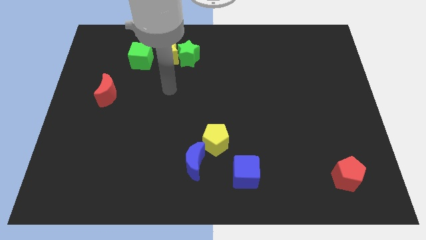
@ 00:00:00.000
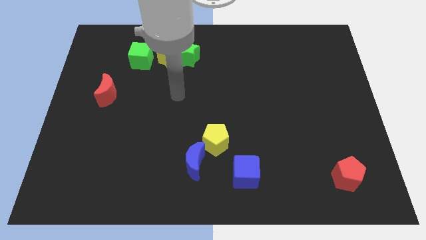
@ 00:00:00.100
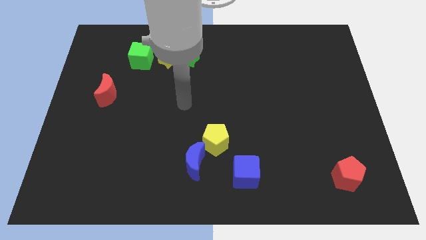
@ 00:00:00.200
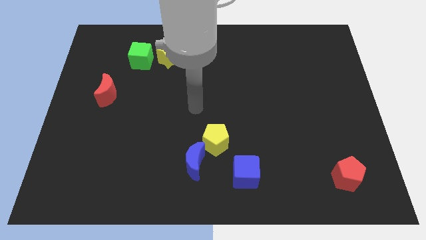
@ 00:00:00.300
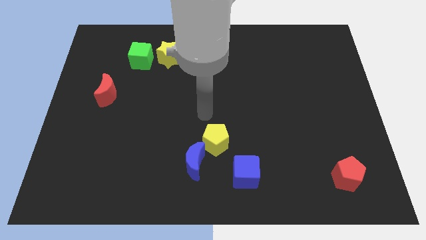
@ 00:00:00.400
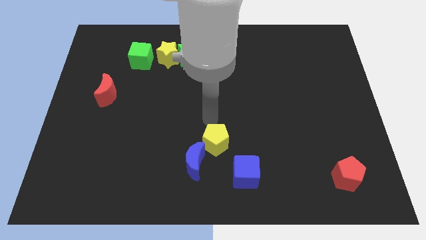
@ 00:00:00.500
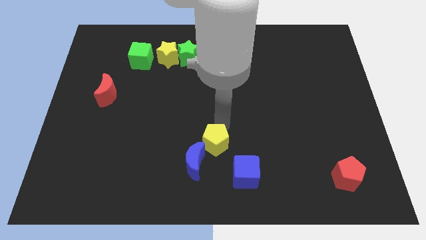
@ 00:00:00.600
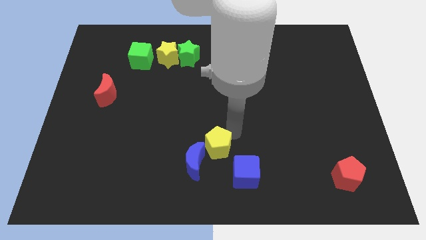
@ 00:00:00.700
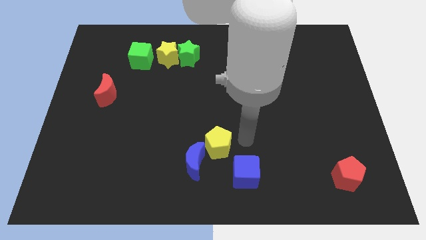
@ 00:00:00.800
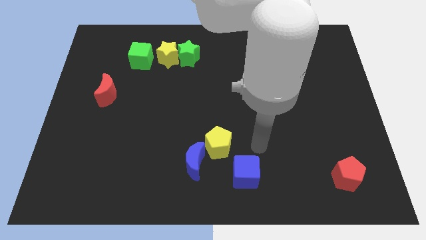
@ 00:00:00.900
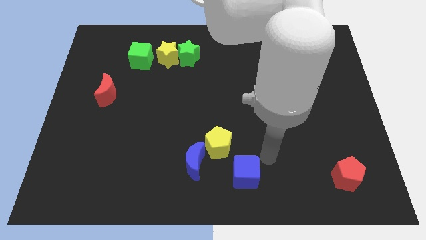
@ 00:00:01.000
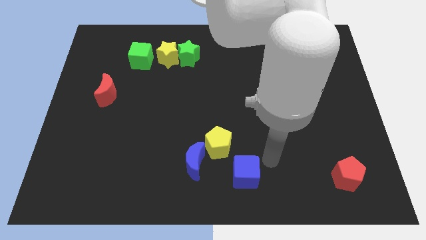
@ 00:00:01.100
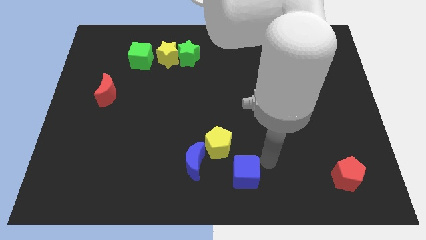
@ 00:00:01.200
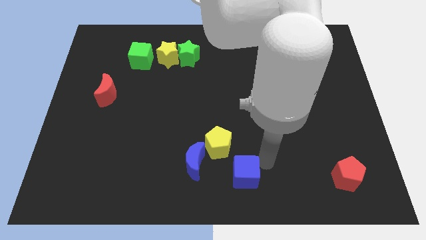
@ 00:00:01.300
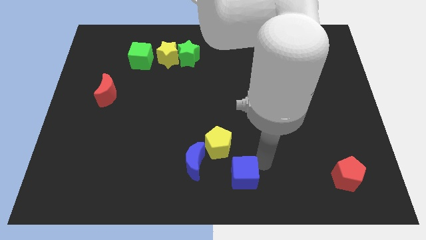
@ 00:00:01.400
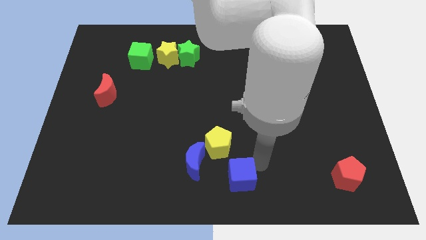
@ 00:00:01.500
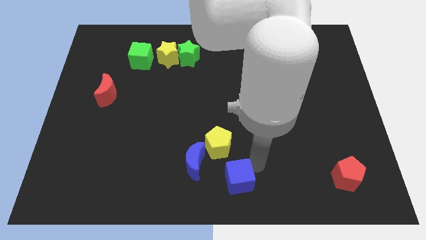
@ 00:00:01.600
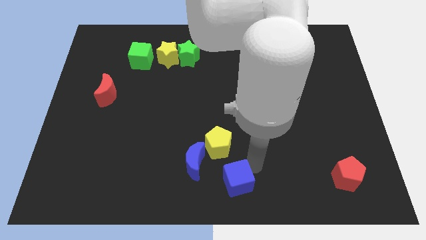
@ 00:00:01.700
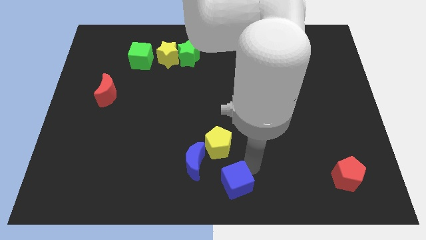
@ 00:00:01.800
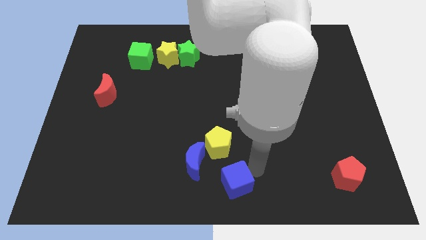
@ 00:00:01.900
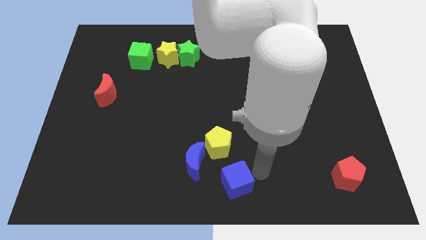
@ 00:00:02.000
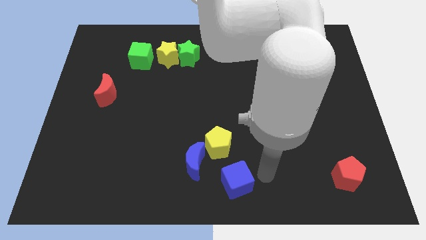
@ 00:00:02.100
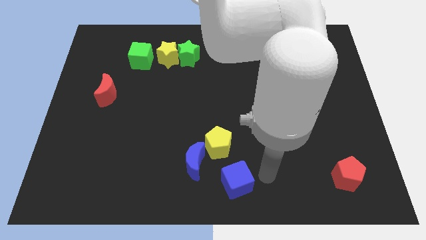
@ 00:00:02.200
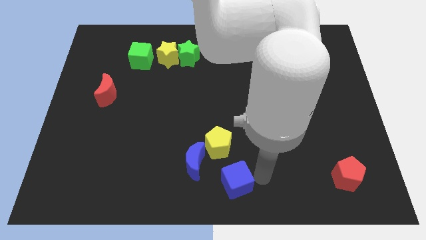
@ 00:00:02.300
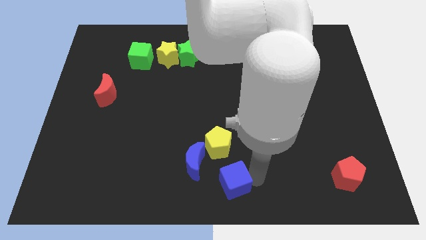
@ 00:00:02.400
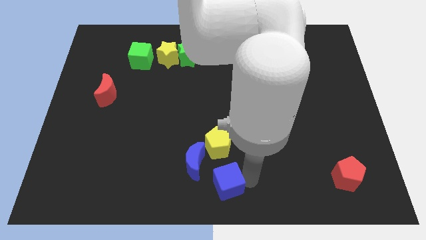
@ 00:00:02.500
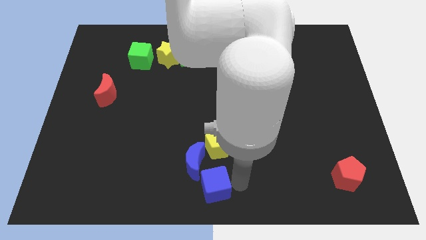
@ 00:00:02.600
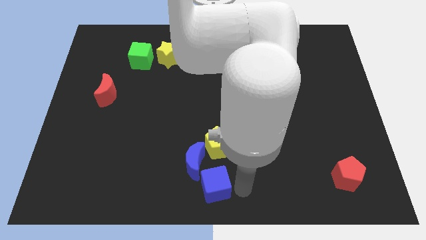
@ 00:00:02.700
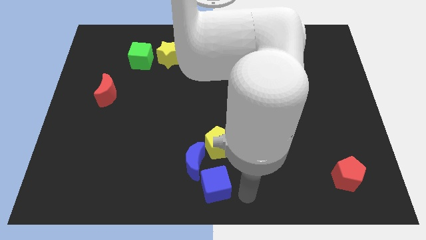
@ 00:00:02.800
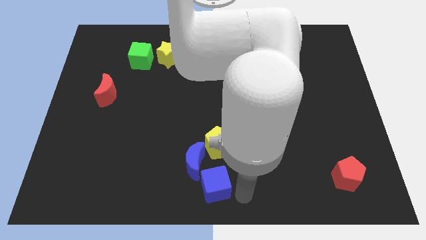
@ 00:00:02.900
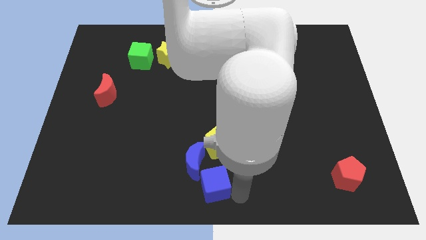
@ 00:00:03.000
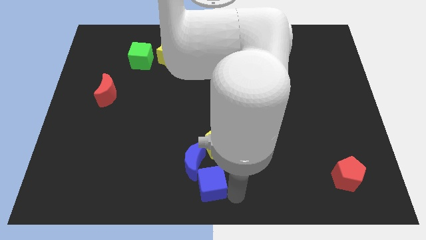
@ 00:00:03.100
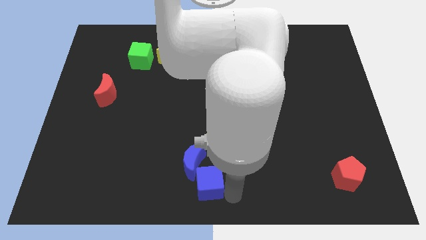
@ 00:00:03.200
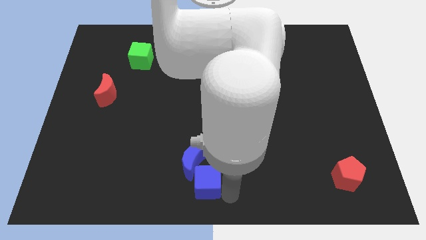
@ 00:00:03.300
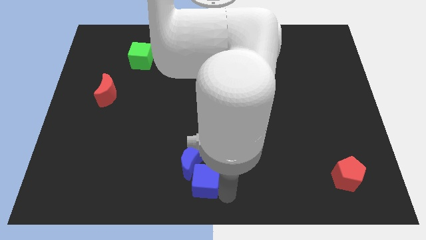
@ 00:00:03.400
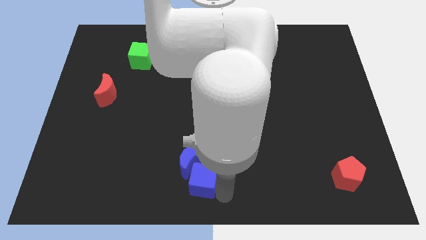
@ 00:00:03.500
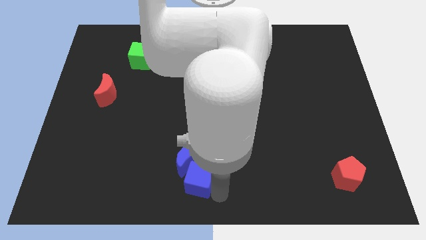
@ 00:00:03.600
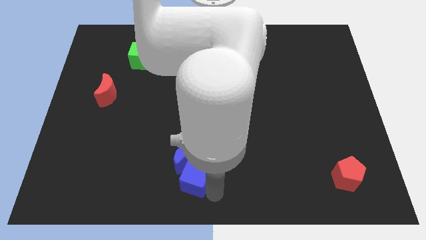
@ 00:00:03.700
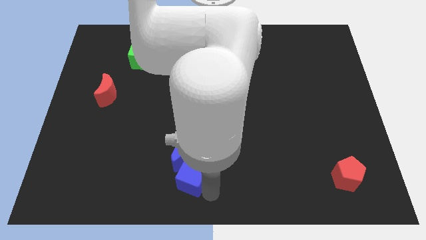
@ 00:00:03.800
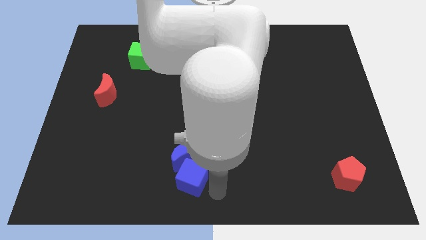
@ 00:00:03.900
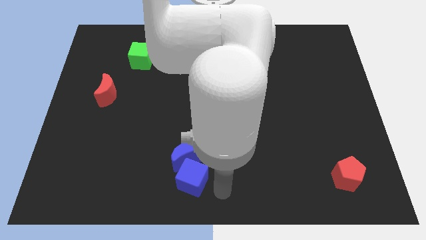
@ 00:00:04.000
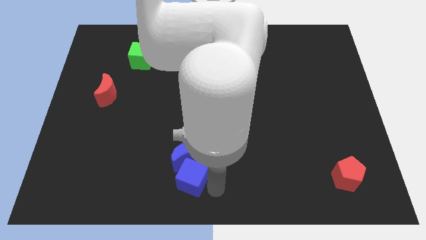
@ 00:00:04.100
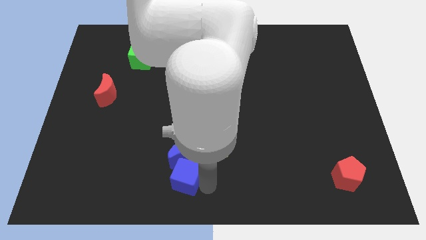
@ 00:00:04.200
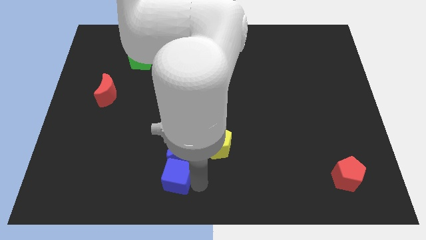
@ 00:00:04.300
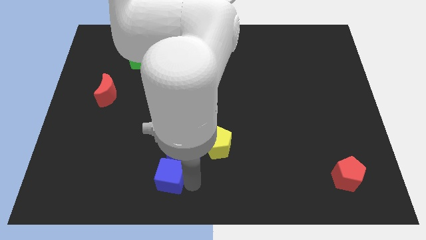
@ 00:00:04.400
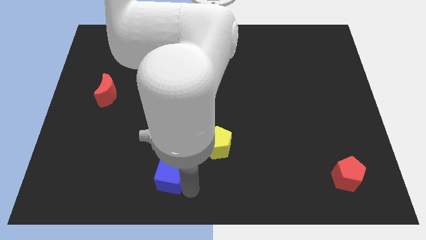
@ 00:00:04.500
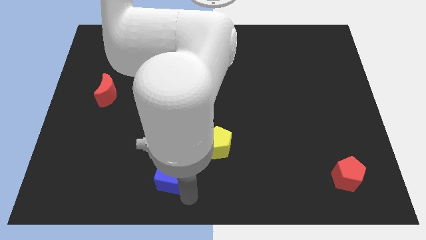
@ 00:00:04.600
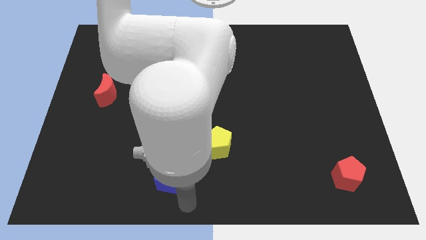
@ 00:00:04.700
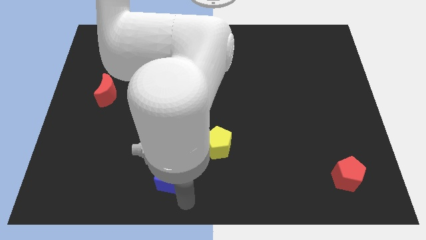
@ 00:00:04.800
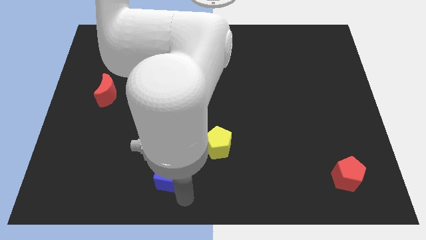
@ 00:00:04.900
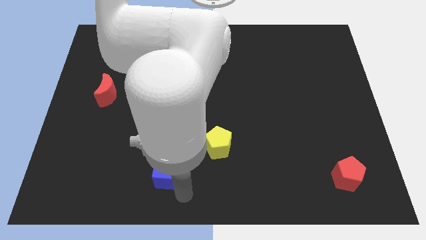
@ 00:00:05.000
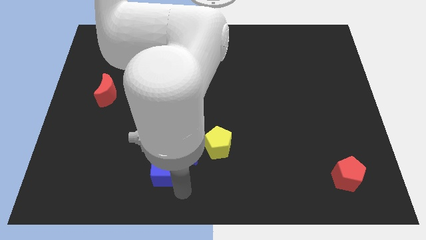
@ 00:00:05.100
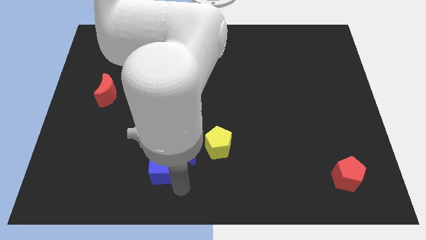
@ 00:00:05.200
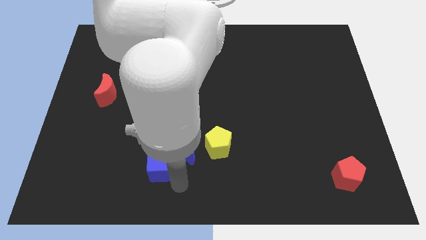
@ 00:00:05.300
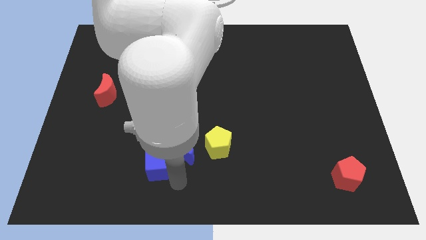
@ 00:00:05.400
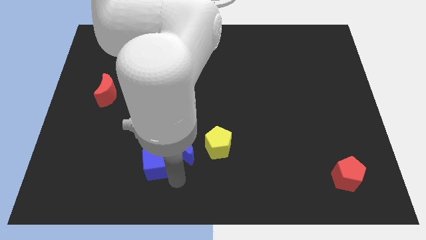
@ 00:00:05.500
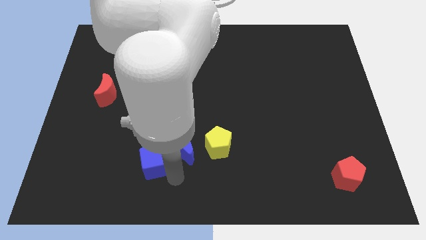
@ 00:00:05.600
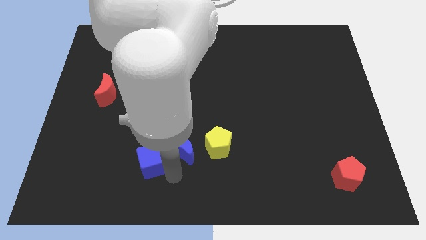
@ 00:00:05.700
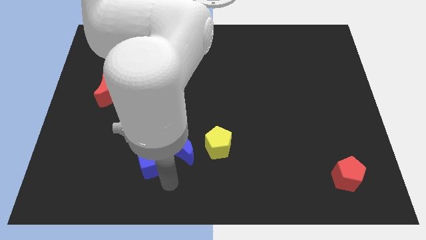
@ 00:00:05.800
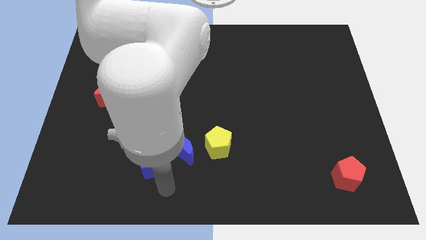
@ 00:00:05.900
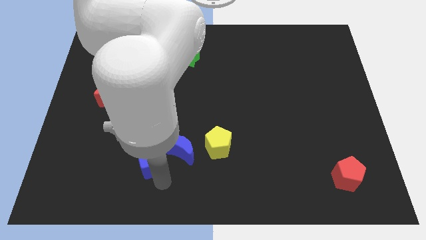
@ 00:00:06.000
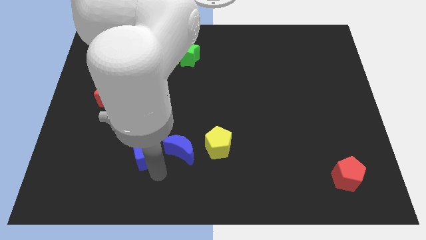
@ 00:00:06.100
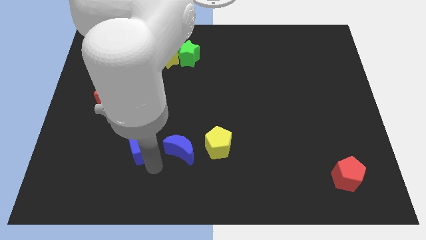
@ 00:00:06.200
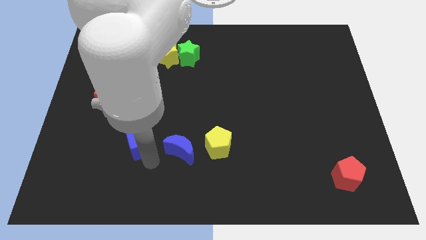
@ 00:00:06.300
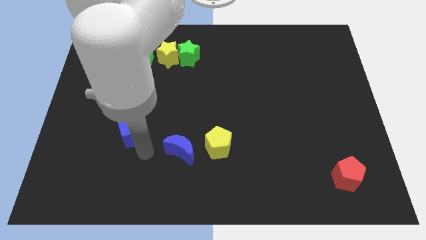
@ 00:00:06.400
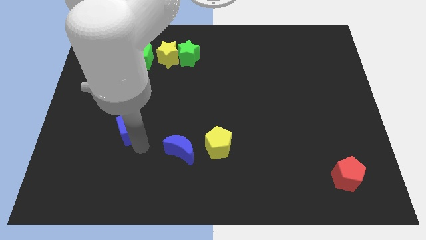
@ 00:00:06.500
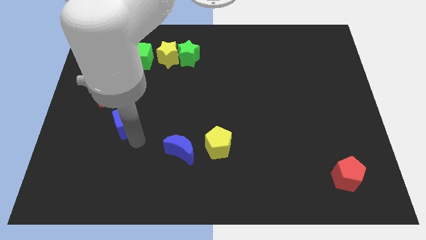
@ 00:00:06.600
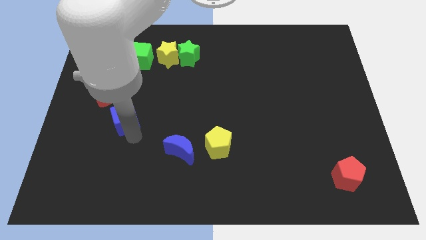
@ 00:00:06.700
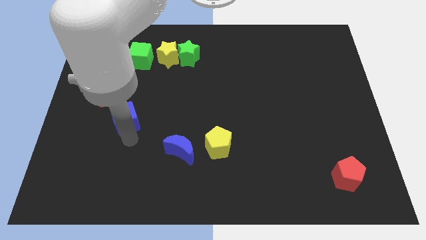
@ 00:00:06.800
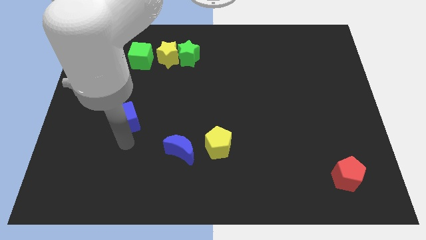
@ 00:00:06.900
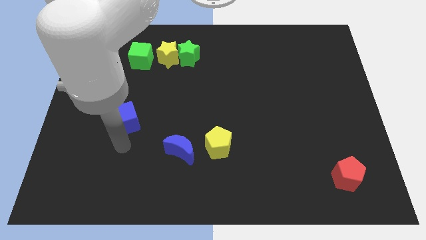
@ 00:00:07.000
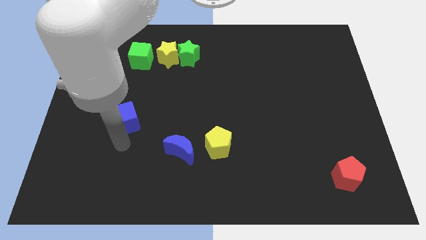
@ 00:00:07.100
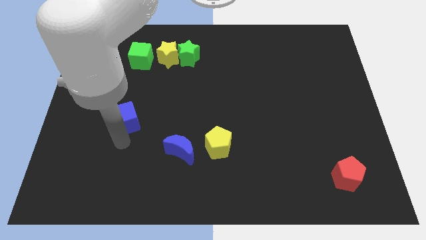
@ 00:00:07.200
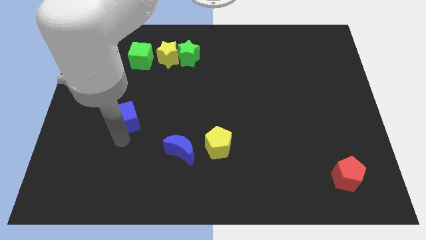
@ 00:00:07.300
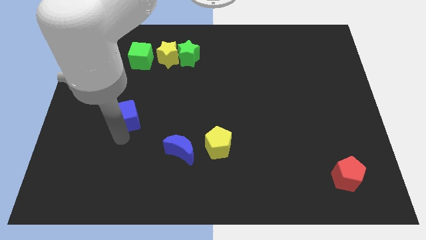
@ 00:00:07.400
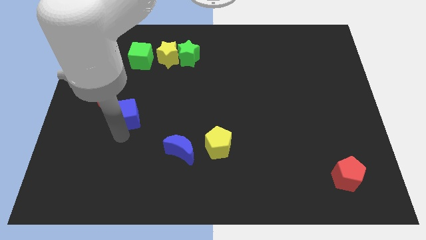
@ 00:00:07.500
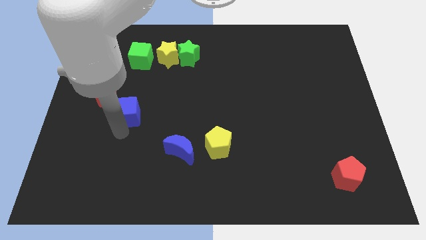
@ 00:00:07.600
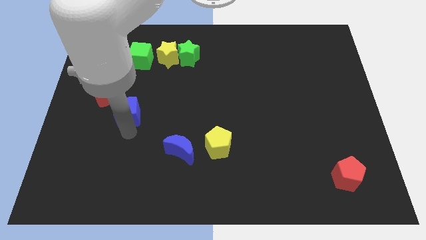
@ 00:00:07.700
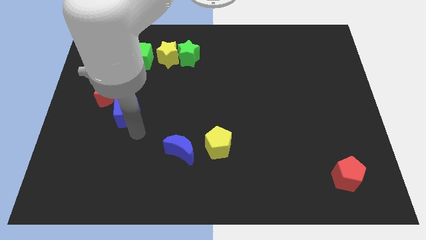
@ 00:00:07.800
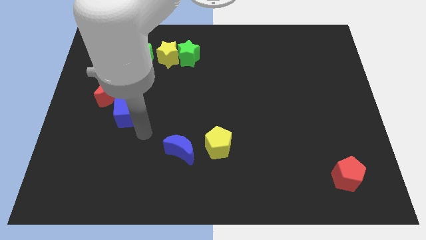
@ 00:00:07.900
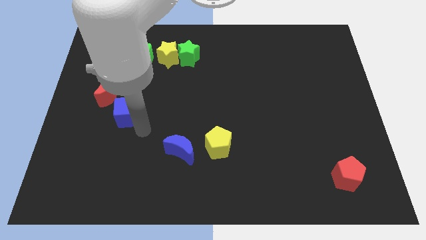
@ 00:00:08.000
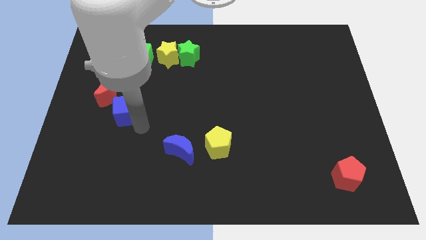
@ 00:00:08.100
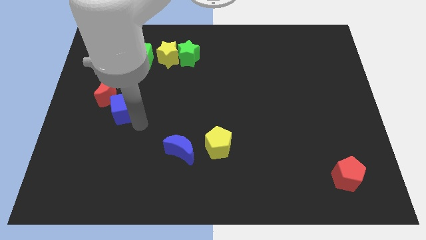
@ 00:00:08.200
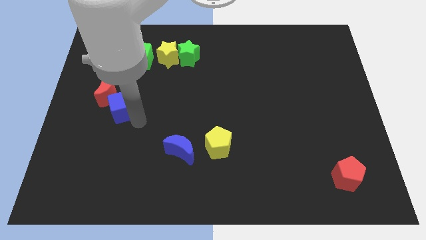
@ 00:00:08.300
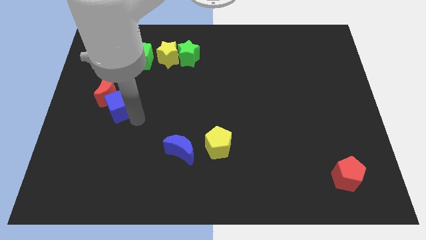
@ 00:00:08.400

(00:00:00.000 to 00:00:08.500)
slide the blue cube close to the red moon
